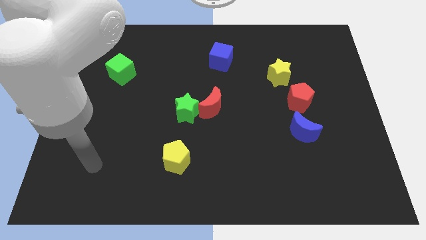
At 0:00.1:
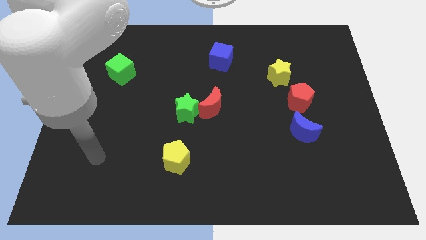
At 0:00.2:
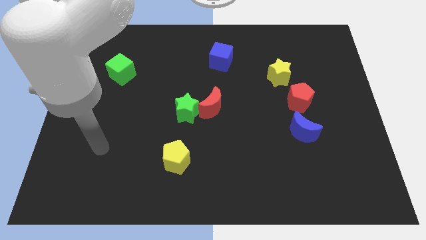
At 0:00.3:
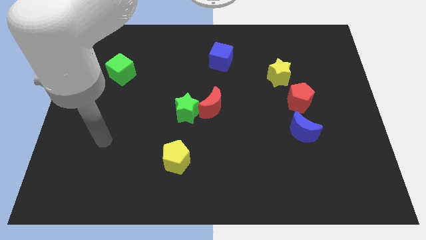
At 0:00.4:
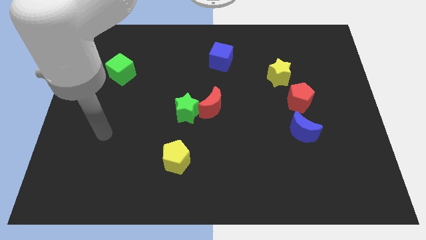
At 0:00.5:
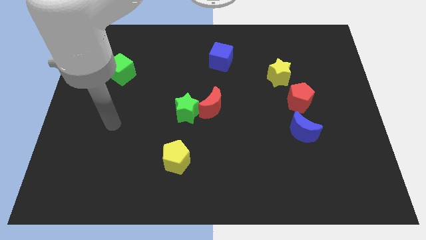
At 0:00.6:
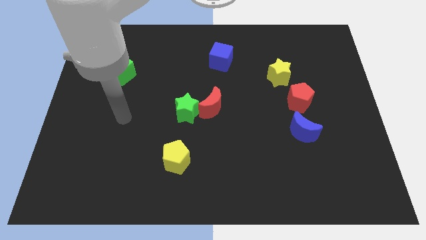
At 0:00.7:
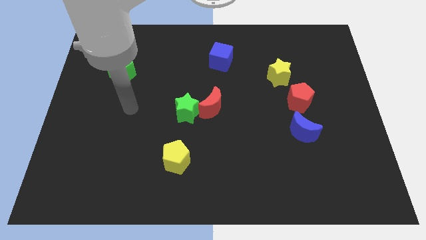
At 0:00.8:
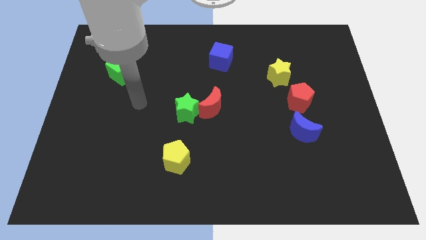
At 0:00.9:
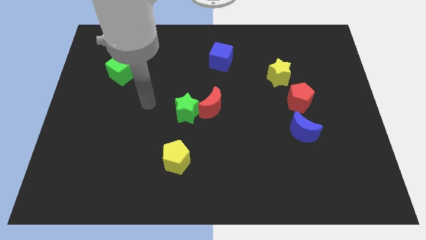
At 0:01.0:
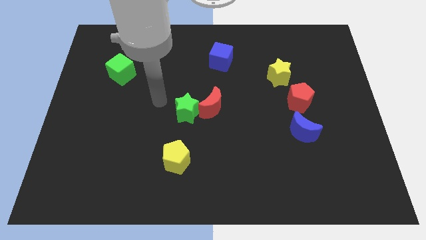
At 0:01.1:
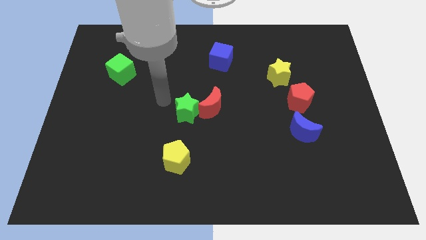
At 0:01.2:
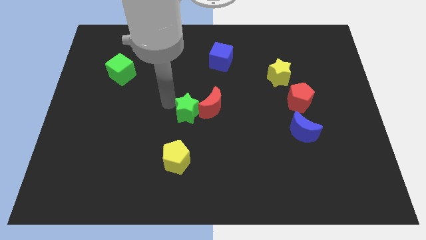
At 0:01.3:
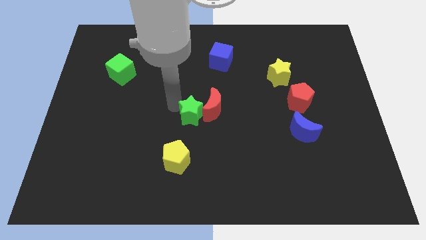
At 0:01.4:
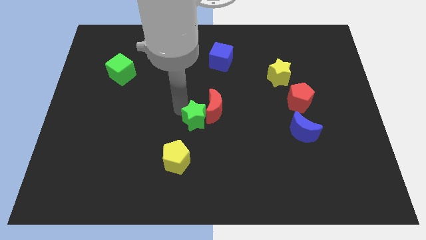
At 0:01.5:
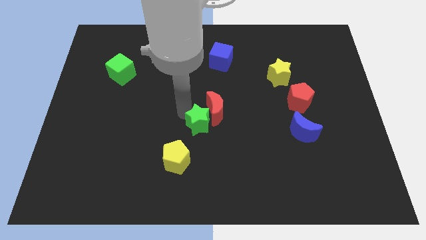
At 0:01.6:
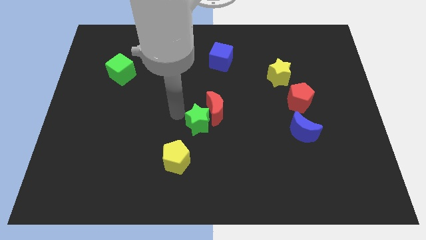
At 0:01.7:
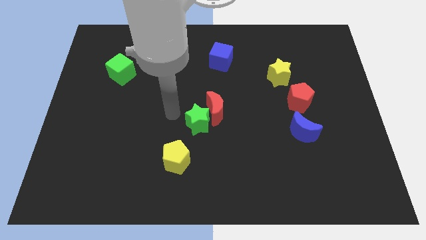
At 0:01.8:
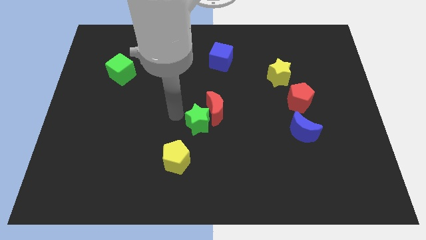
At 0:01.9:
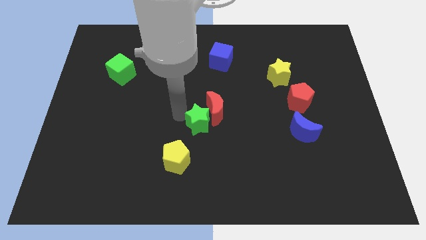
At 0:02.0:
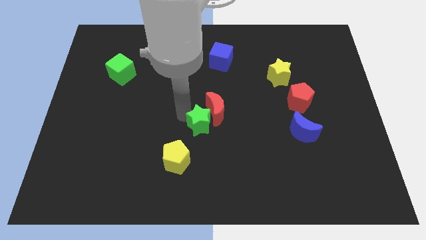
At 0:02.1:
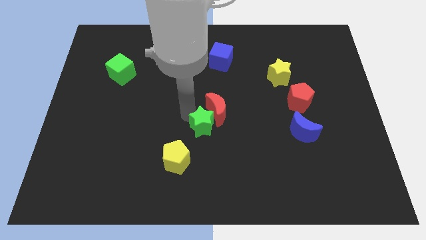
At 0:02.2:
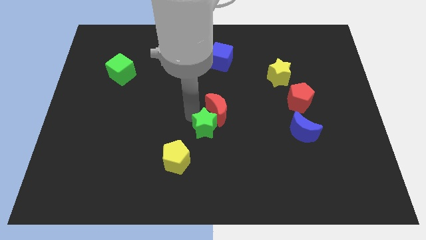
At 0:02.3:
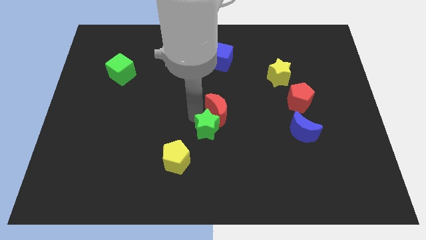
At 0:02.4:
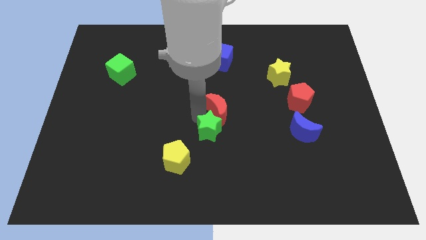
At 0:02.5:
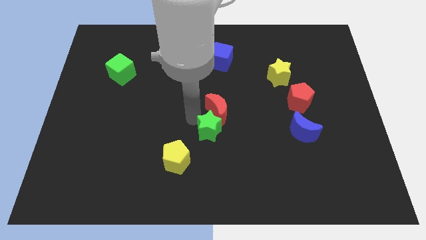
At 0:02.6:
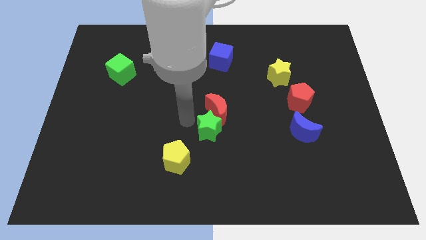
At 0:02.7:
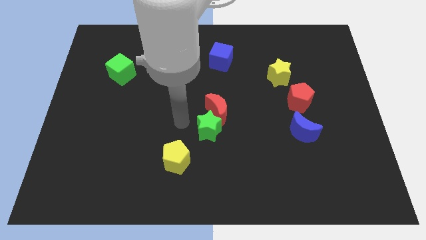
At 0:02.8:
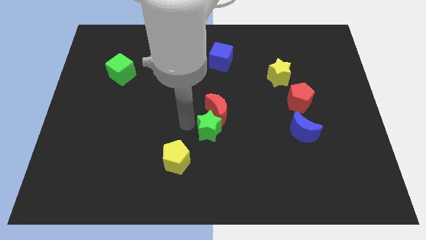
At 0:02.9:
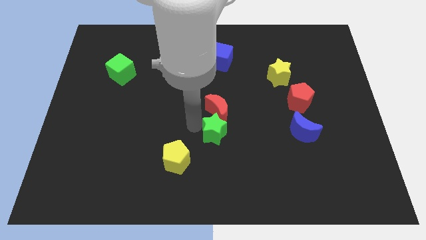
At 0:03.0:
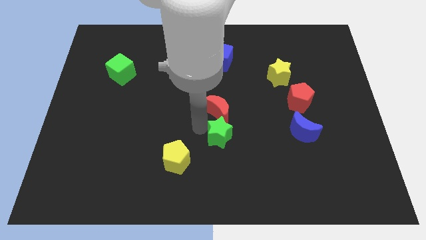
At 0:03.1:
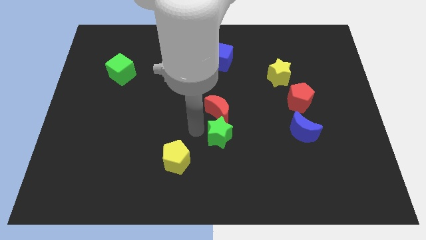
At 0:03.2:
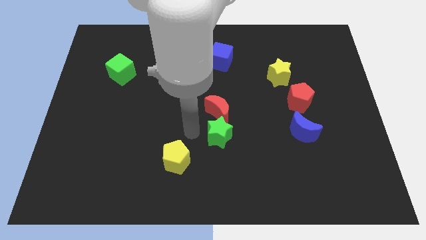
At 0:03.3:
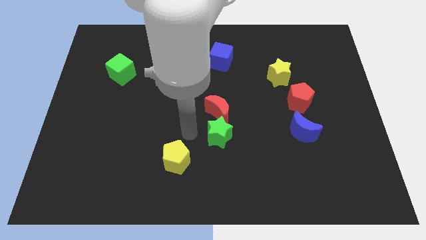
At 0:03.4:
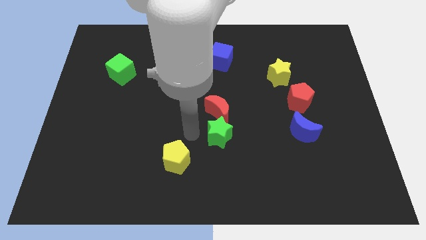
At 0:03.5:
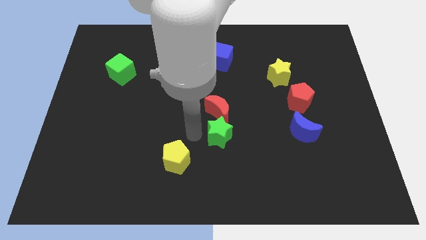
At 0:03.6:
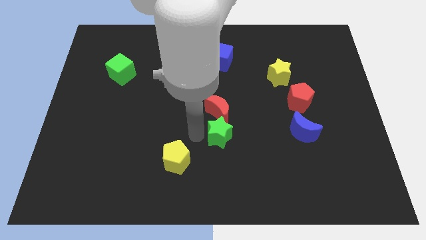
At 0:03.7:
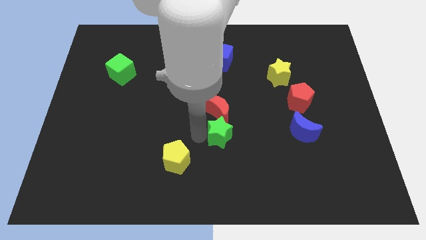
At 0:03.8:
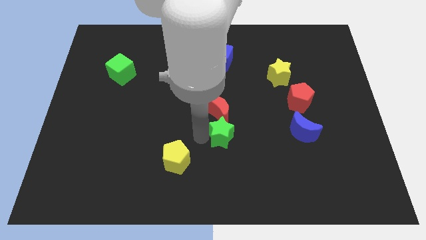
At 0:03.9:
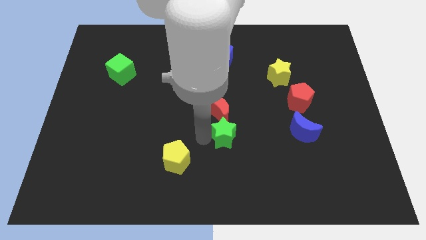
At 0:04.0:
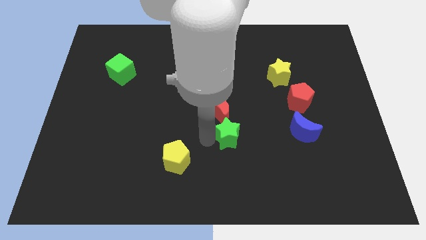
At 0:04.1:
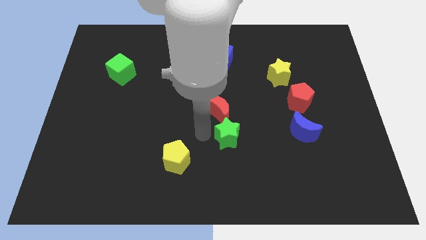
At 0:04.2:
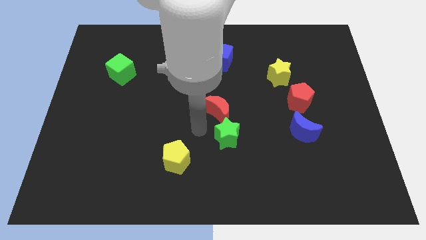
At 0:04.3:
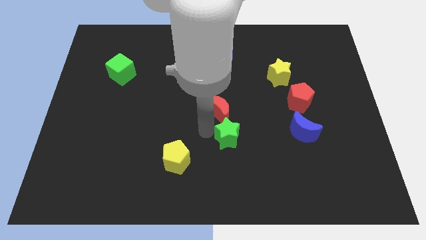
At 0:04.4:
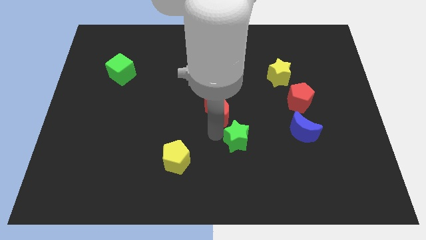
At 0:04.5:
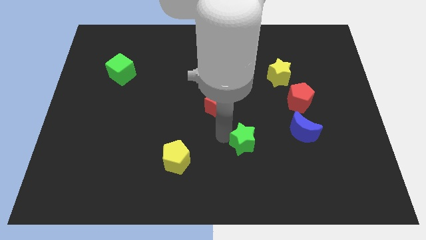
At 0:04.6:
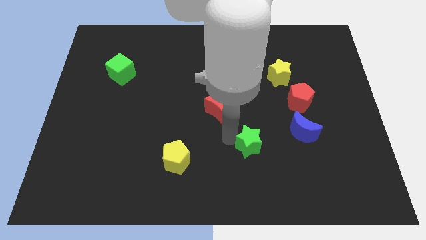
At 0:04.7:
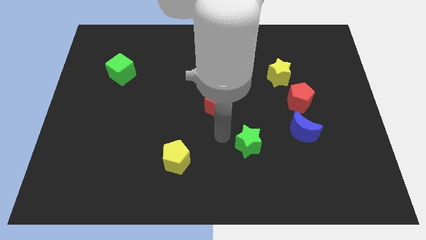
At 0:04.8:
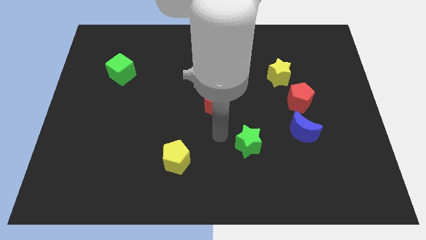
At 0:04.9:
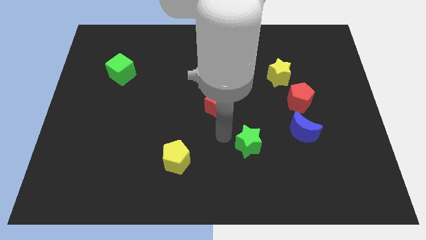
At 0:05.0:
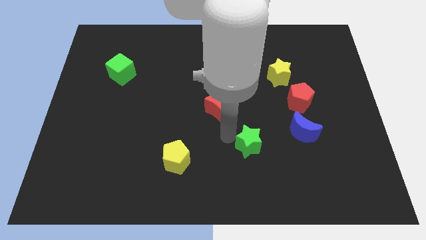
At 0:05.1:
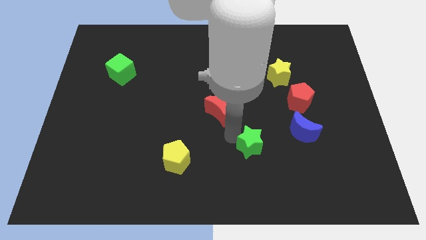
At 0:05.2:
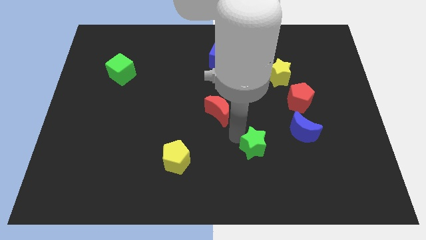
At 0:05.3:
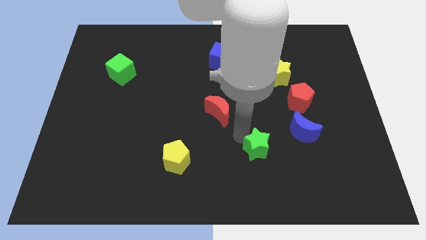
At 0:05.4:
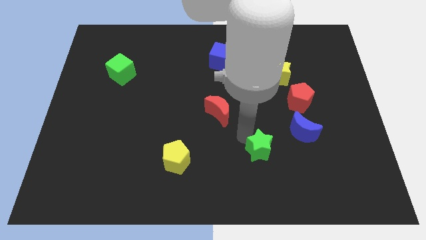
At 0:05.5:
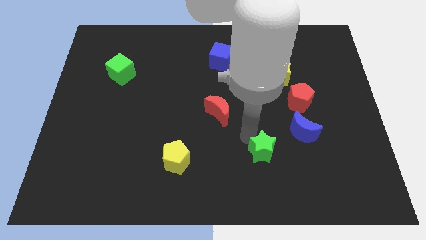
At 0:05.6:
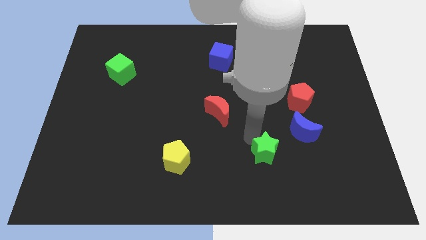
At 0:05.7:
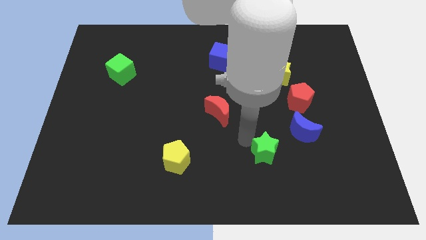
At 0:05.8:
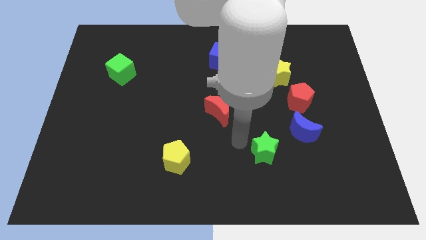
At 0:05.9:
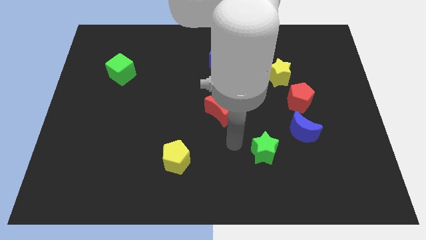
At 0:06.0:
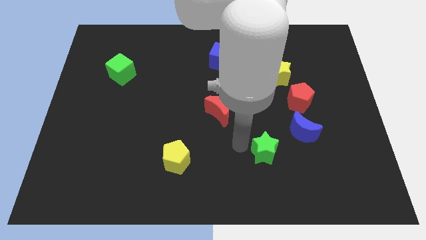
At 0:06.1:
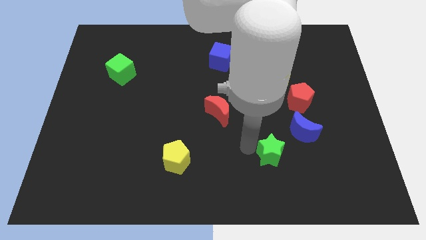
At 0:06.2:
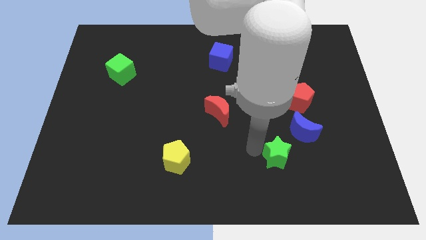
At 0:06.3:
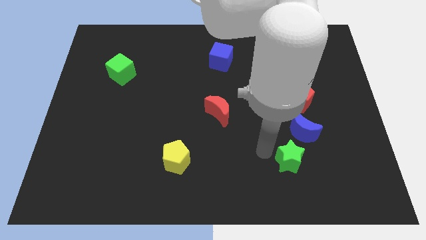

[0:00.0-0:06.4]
move the green star to the bottom side of the blue moon

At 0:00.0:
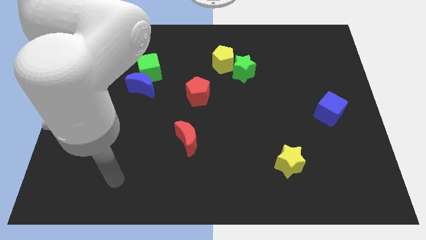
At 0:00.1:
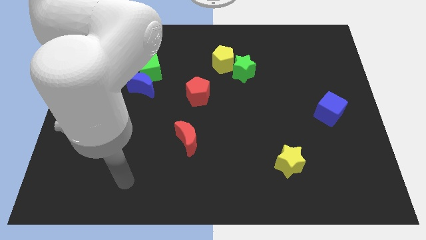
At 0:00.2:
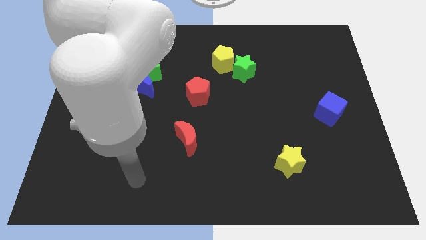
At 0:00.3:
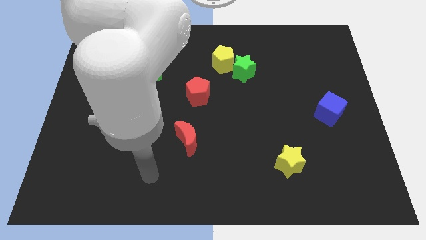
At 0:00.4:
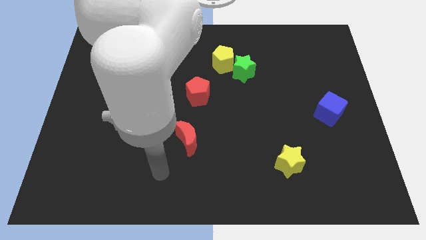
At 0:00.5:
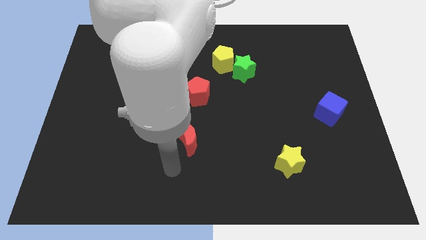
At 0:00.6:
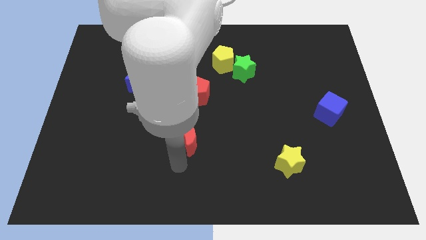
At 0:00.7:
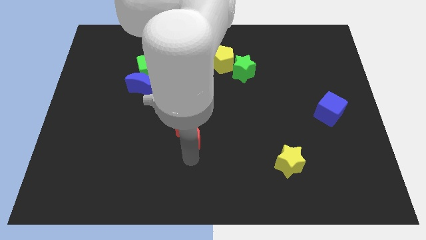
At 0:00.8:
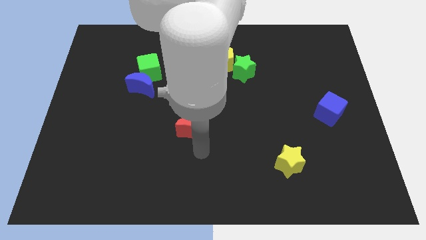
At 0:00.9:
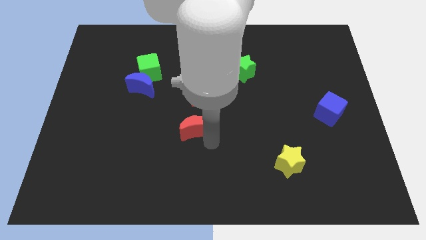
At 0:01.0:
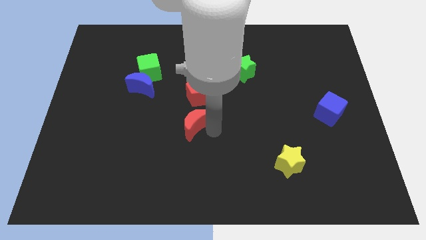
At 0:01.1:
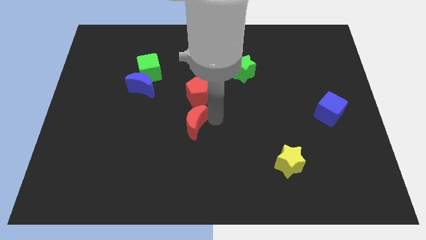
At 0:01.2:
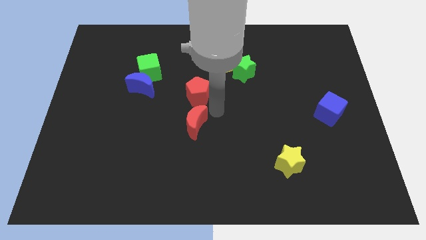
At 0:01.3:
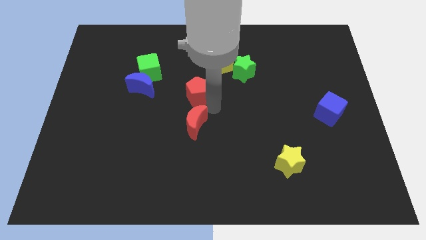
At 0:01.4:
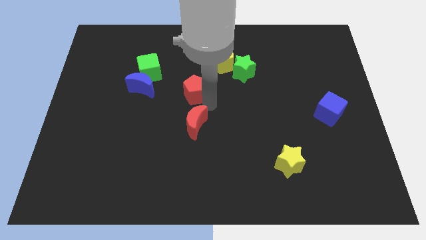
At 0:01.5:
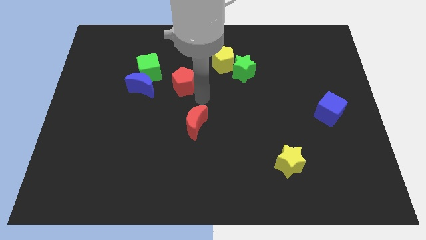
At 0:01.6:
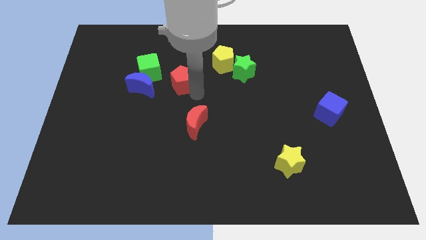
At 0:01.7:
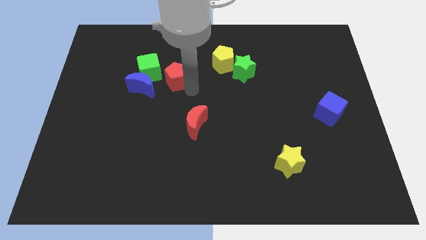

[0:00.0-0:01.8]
move the red pentagon diagonally up and to the right of the blue moon
